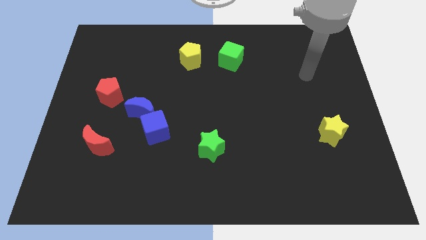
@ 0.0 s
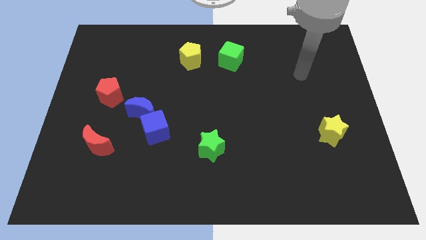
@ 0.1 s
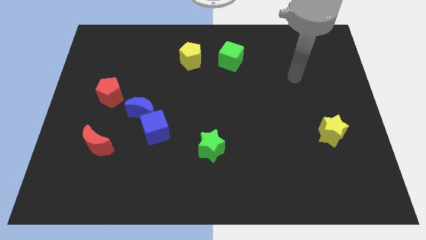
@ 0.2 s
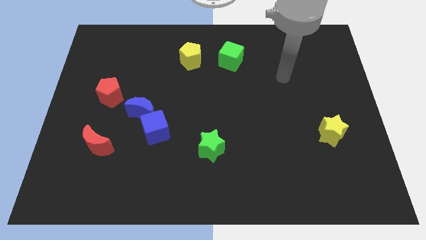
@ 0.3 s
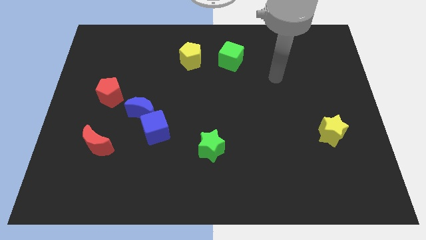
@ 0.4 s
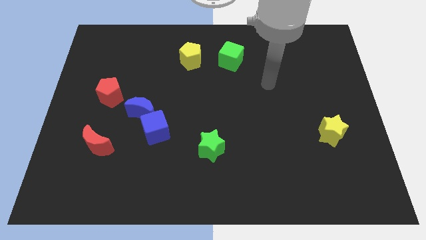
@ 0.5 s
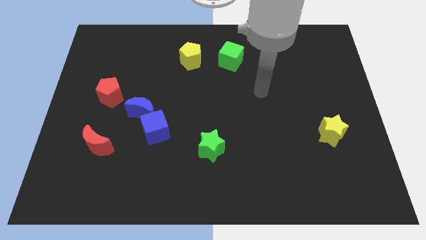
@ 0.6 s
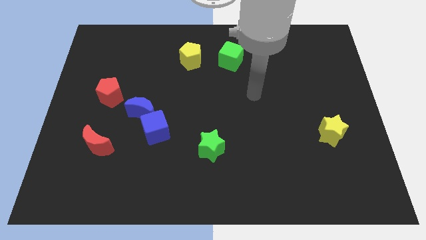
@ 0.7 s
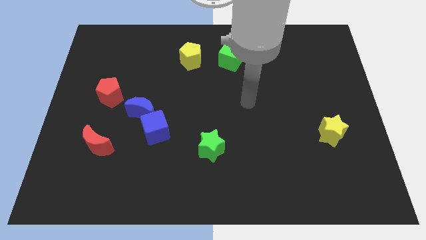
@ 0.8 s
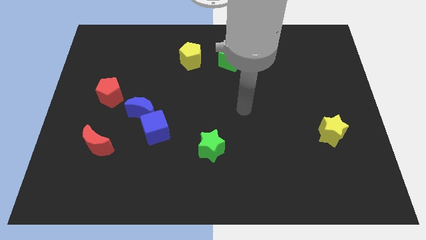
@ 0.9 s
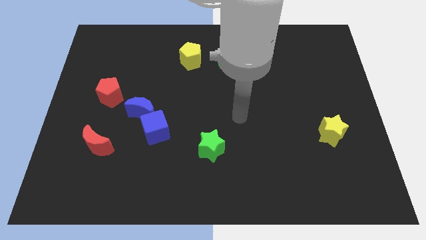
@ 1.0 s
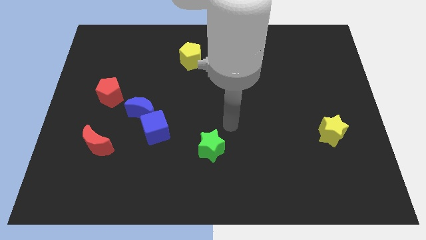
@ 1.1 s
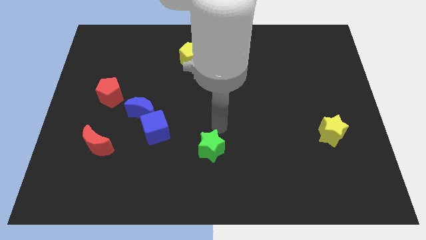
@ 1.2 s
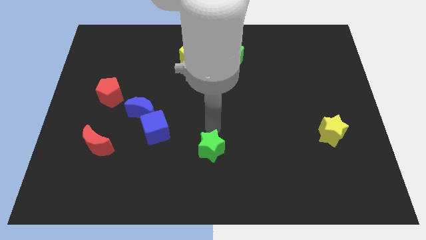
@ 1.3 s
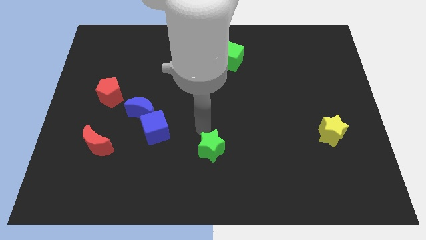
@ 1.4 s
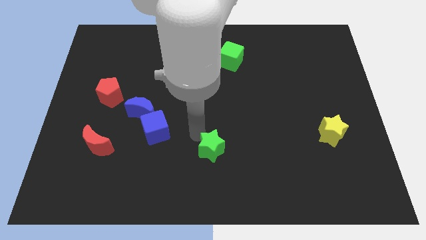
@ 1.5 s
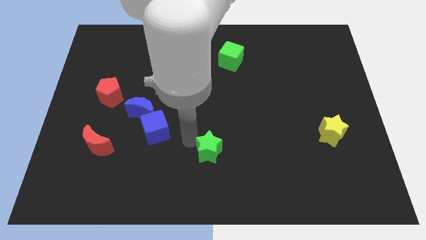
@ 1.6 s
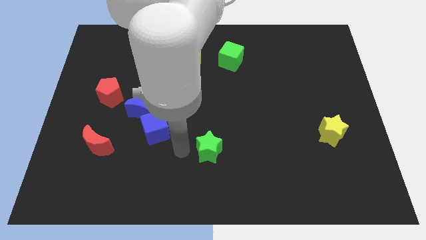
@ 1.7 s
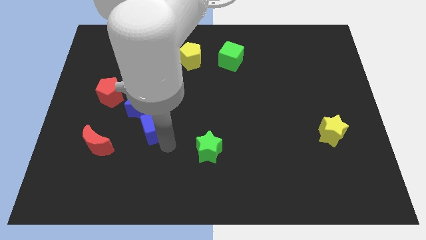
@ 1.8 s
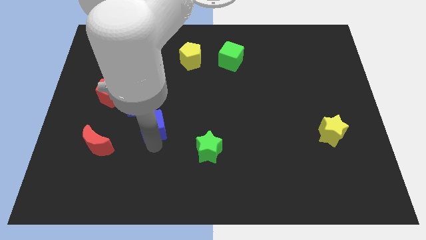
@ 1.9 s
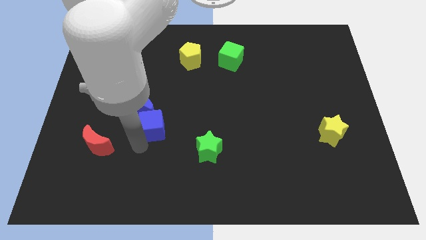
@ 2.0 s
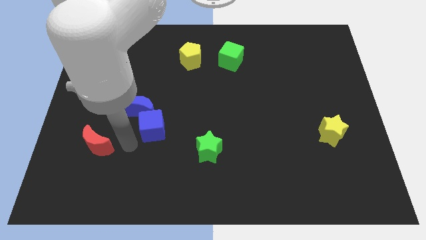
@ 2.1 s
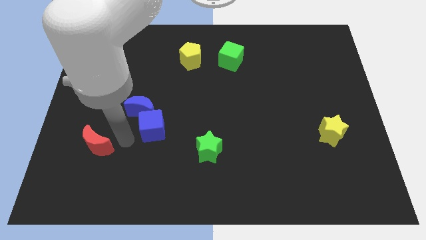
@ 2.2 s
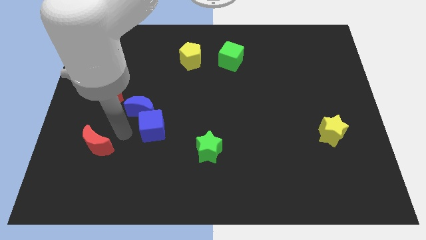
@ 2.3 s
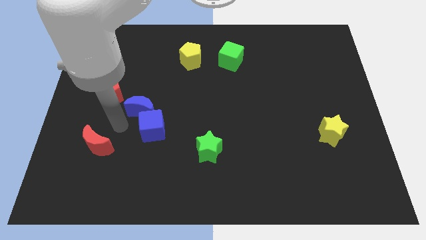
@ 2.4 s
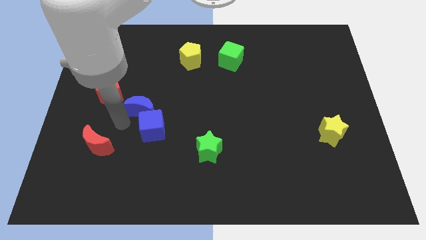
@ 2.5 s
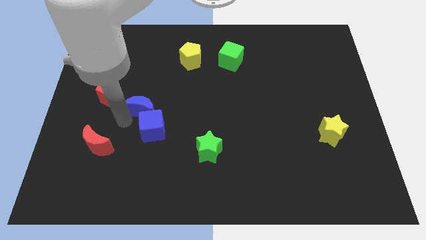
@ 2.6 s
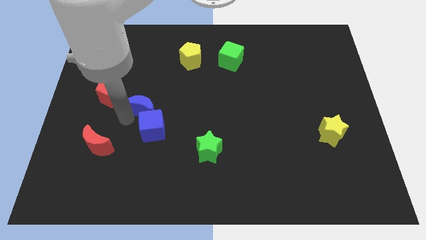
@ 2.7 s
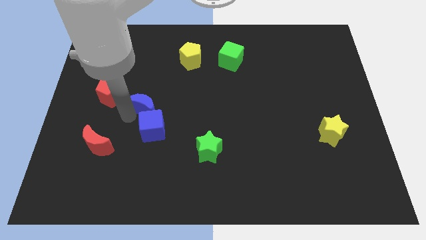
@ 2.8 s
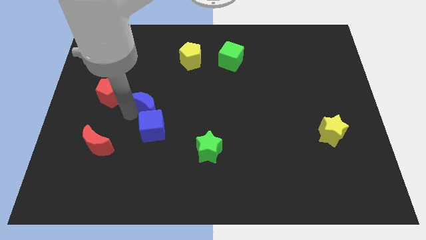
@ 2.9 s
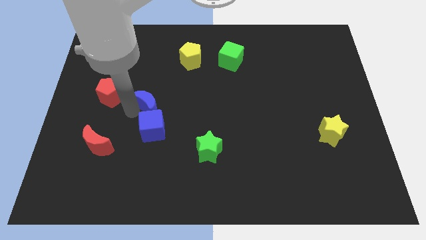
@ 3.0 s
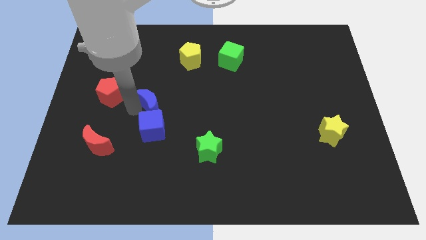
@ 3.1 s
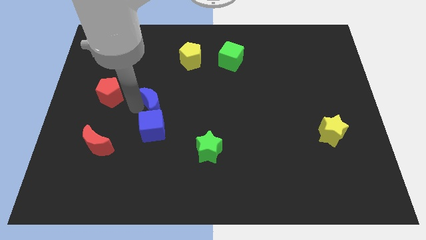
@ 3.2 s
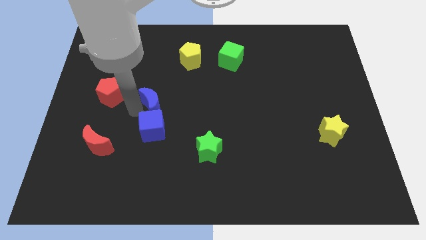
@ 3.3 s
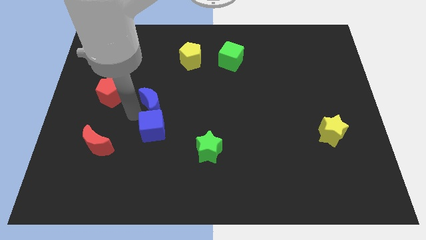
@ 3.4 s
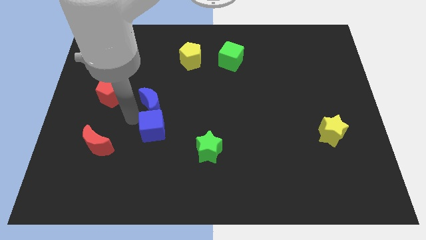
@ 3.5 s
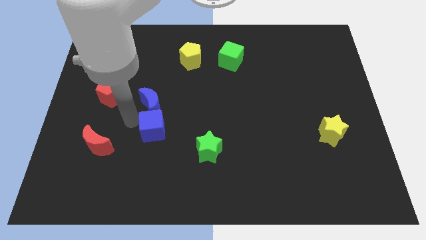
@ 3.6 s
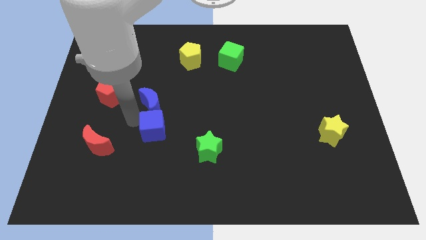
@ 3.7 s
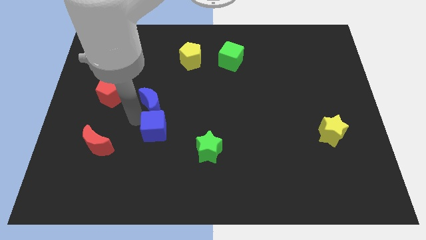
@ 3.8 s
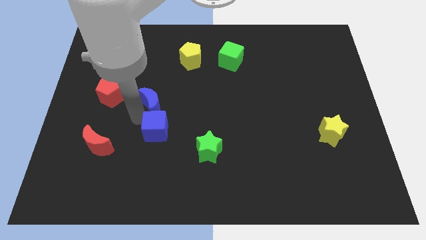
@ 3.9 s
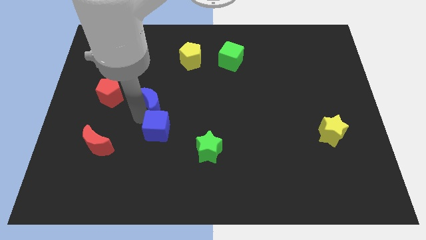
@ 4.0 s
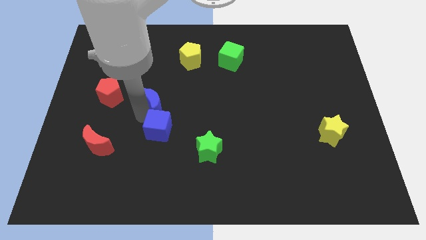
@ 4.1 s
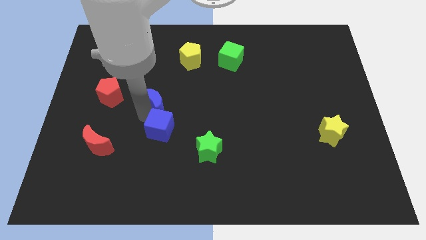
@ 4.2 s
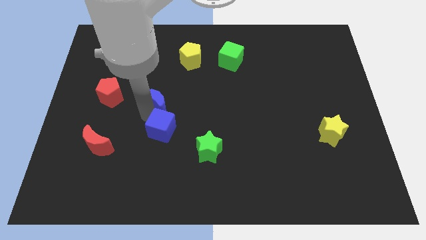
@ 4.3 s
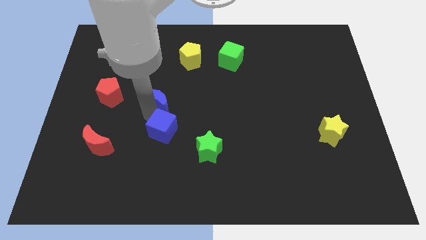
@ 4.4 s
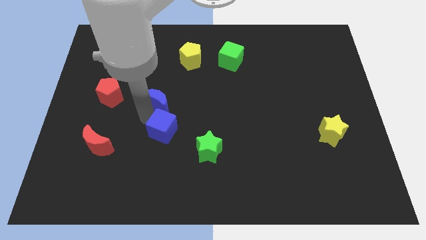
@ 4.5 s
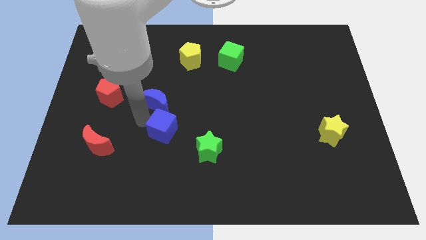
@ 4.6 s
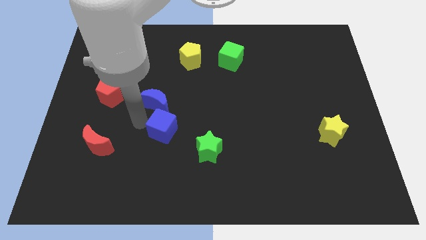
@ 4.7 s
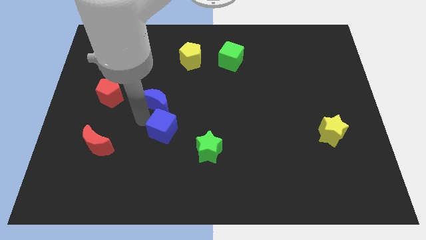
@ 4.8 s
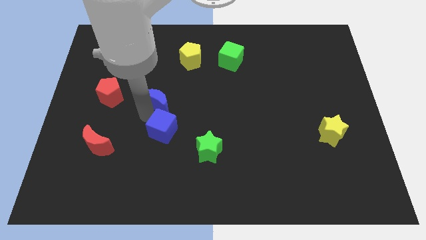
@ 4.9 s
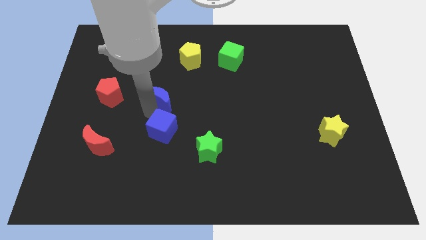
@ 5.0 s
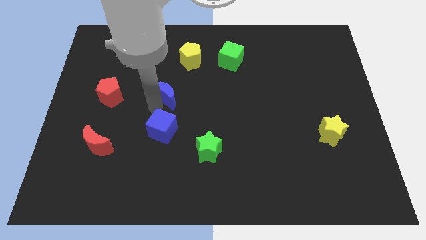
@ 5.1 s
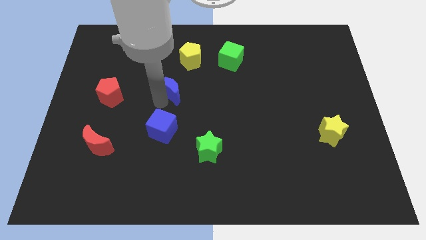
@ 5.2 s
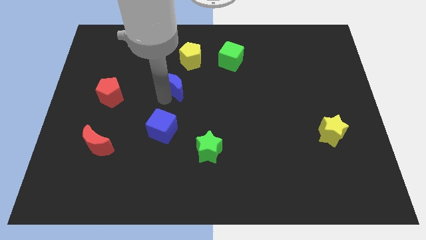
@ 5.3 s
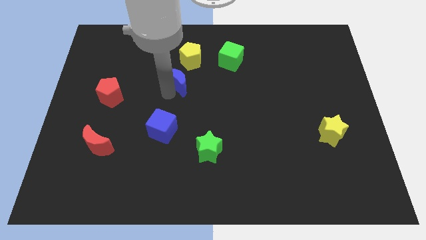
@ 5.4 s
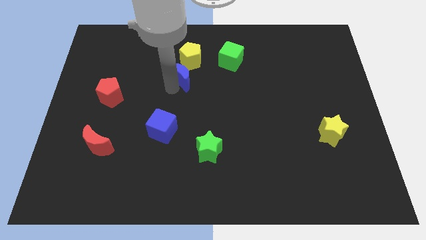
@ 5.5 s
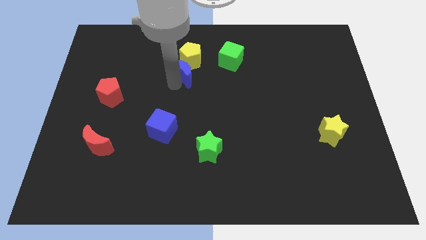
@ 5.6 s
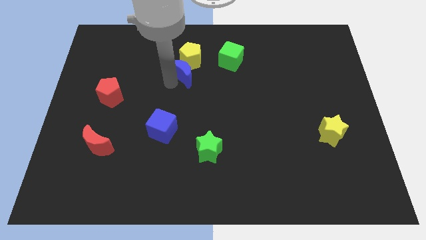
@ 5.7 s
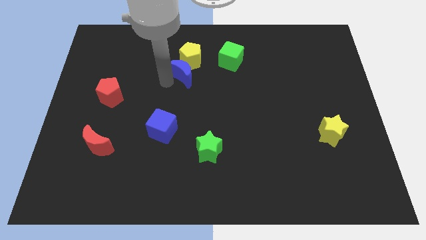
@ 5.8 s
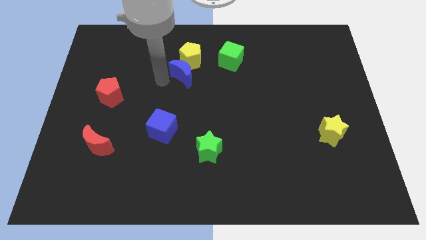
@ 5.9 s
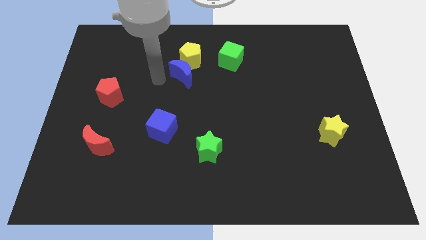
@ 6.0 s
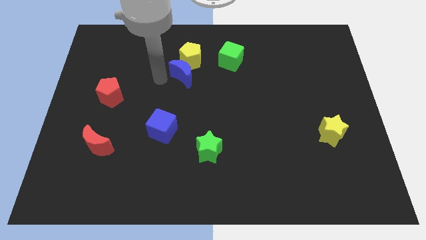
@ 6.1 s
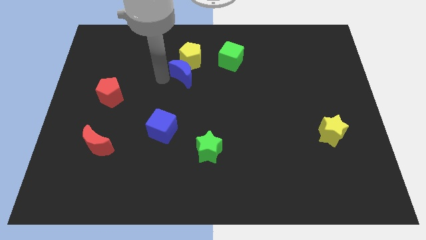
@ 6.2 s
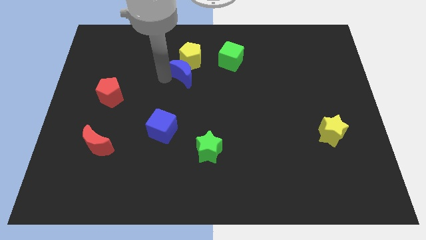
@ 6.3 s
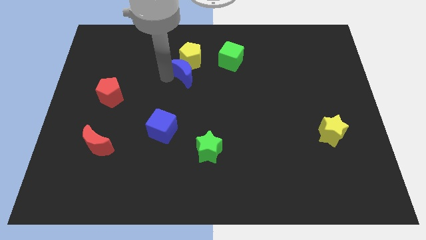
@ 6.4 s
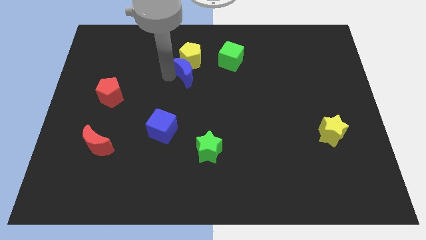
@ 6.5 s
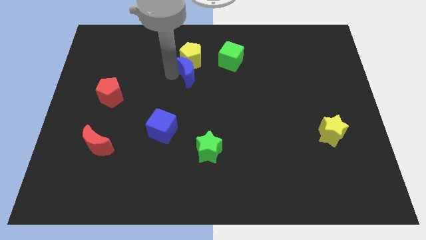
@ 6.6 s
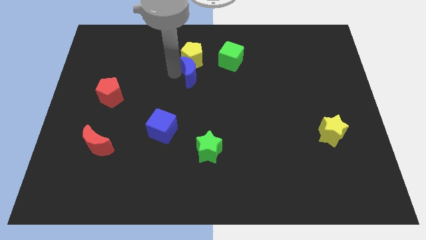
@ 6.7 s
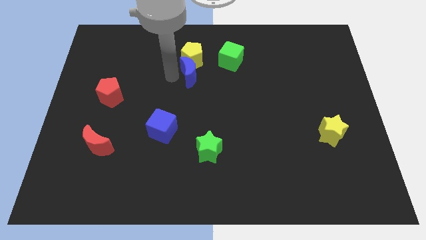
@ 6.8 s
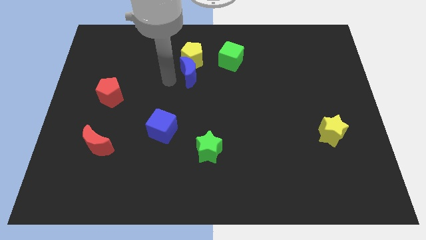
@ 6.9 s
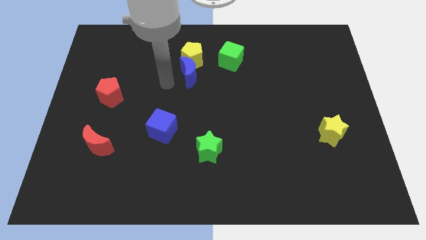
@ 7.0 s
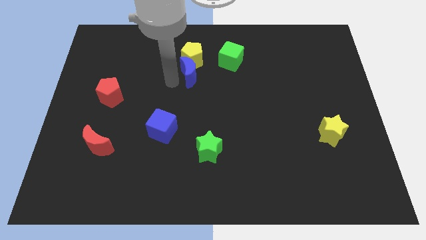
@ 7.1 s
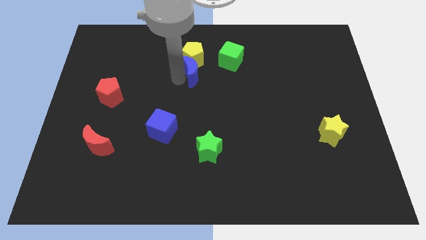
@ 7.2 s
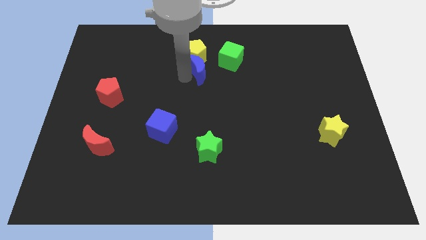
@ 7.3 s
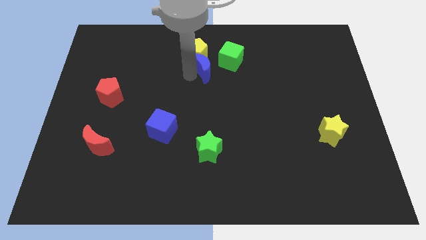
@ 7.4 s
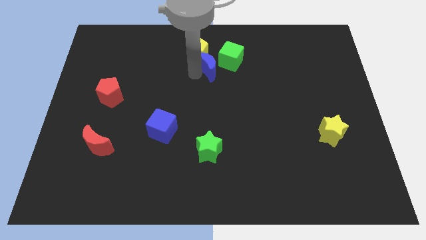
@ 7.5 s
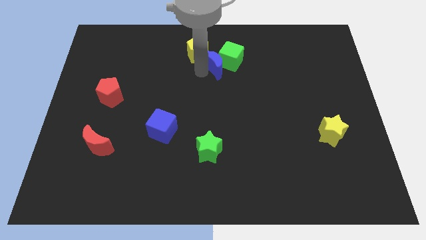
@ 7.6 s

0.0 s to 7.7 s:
move the blue moon next to the green cube
